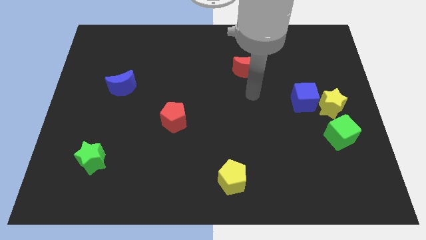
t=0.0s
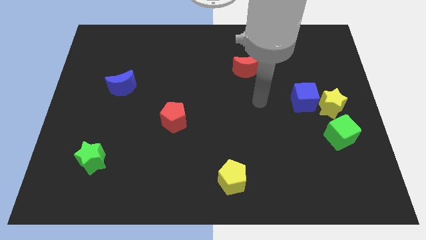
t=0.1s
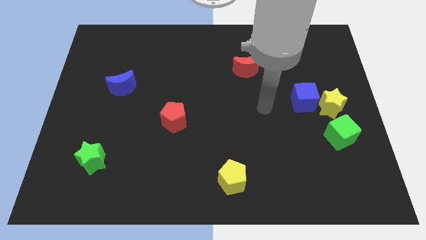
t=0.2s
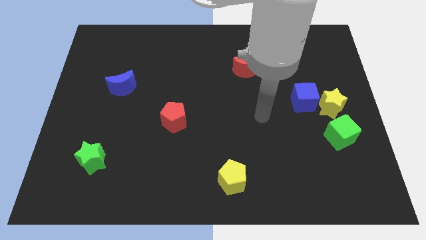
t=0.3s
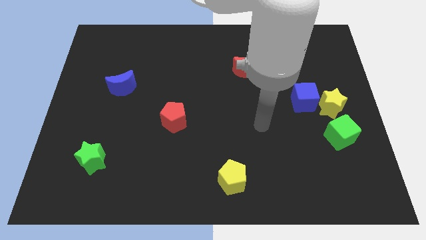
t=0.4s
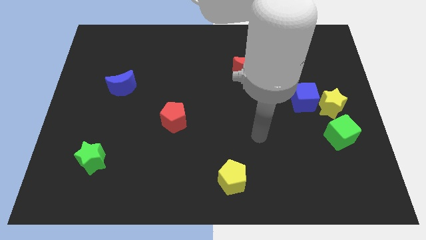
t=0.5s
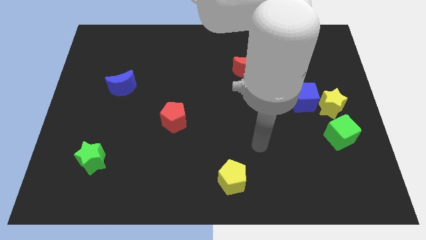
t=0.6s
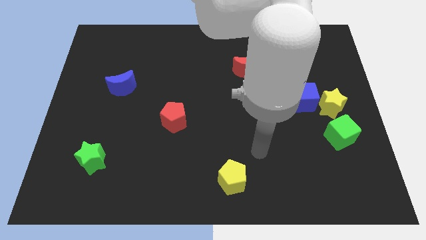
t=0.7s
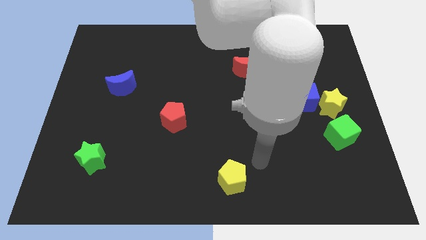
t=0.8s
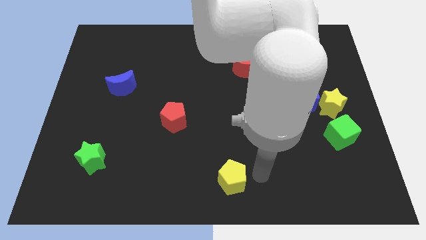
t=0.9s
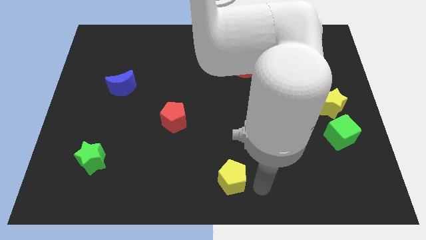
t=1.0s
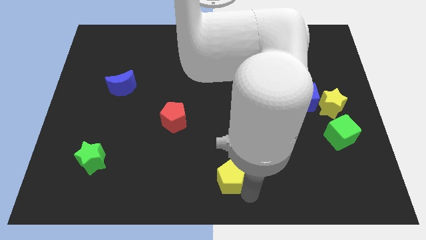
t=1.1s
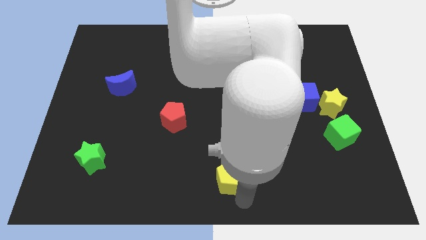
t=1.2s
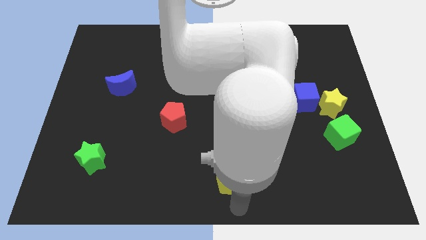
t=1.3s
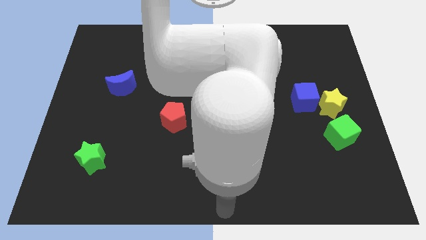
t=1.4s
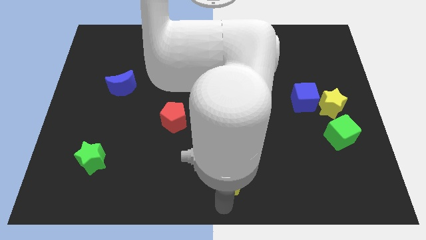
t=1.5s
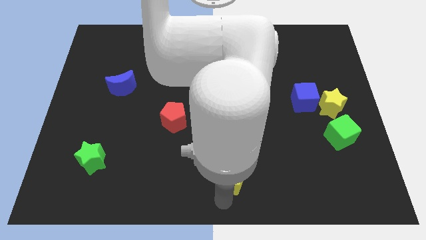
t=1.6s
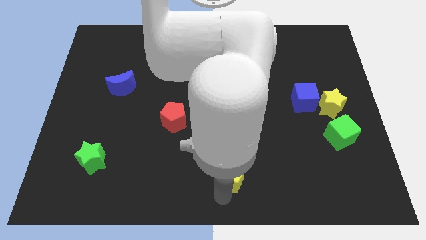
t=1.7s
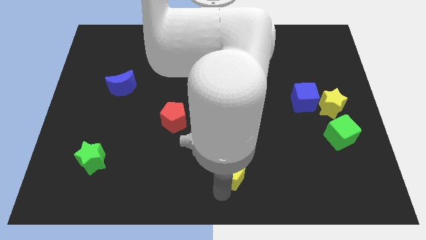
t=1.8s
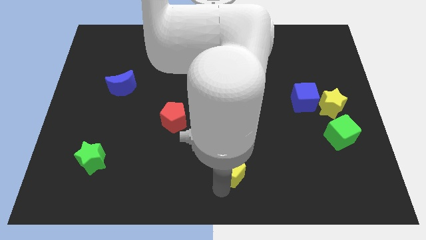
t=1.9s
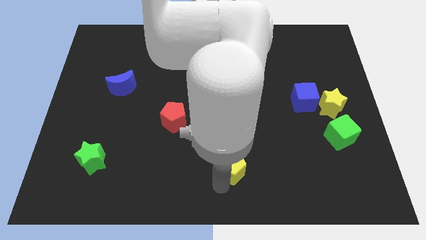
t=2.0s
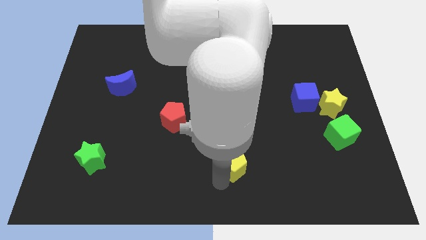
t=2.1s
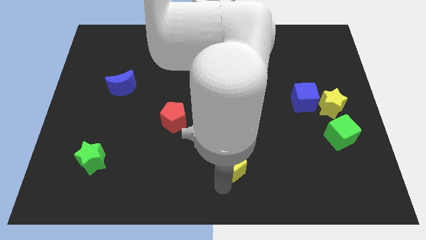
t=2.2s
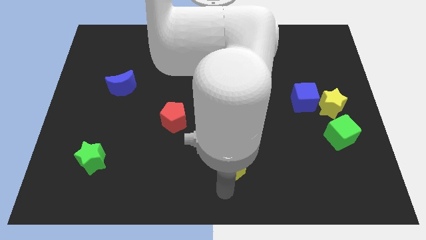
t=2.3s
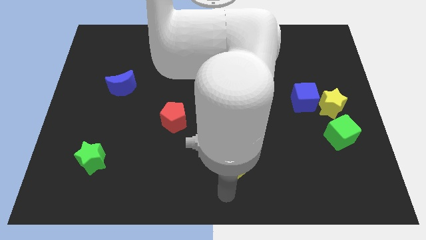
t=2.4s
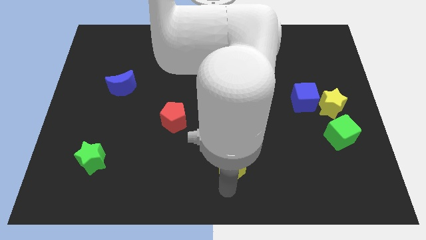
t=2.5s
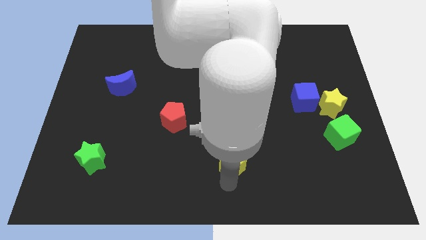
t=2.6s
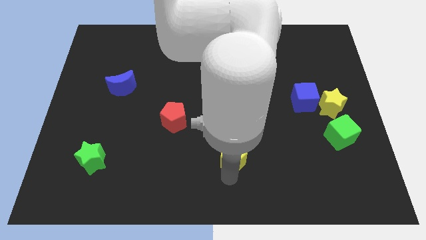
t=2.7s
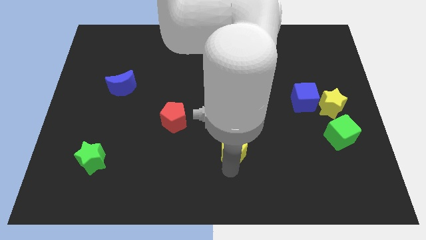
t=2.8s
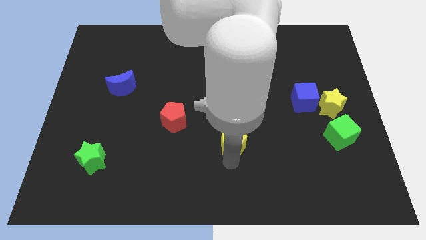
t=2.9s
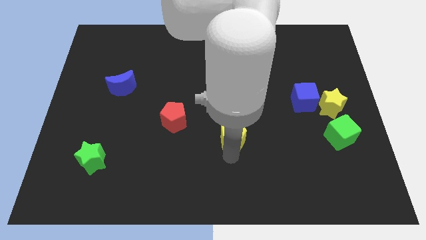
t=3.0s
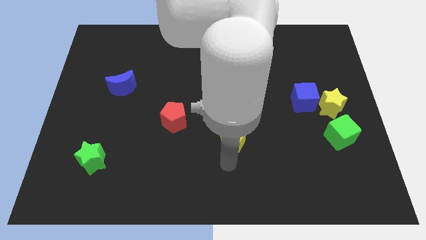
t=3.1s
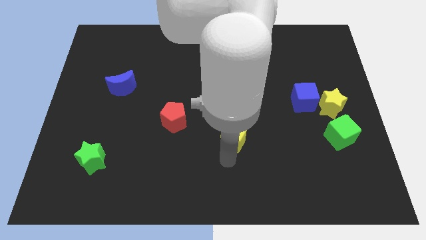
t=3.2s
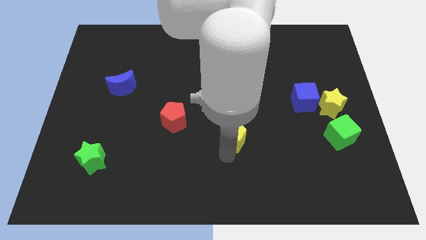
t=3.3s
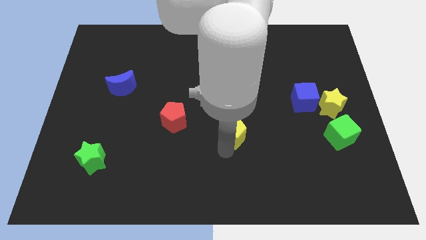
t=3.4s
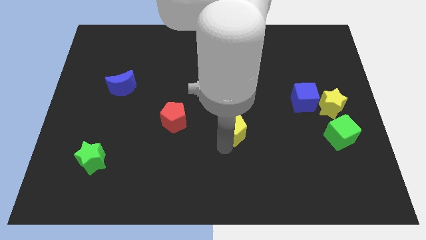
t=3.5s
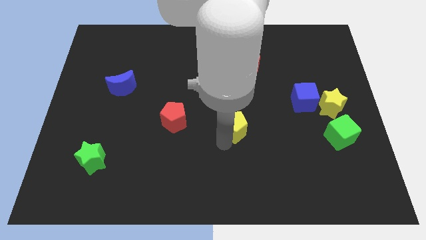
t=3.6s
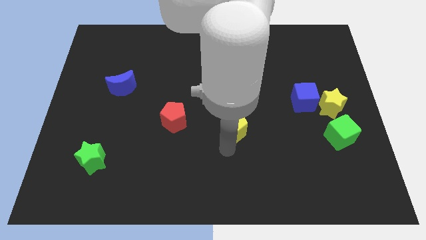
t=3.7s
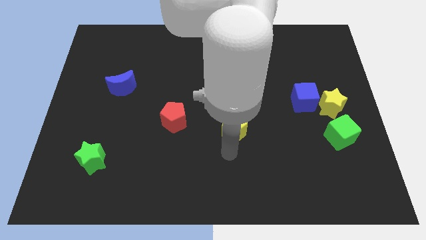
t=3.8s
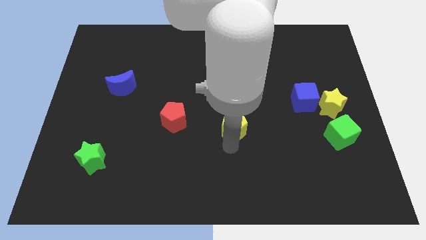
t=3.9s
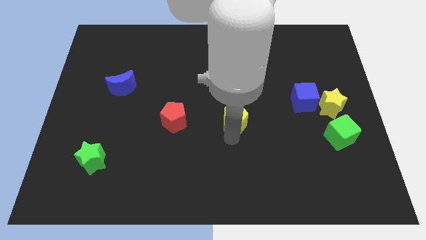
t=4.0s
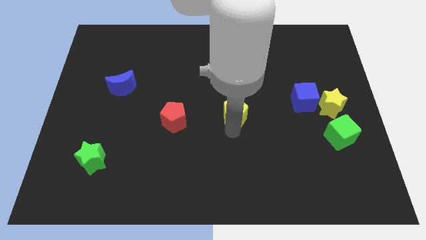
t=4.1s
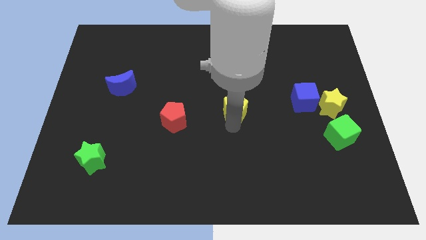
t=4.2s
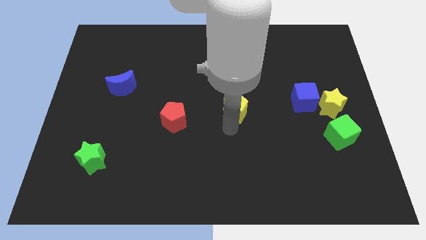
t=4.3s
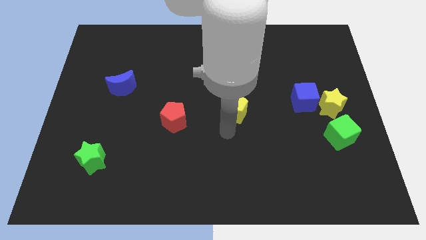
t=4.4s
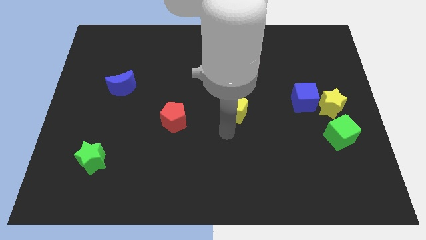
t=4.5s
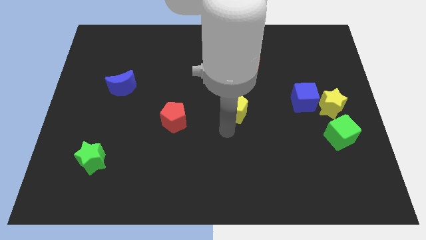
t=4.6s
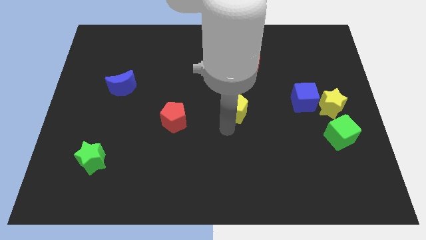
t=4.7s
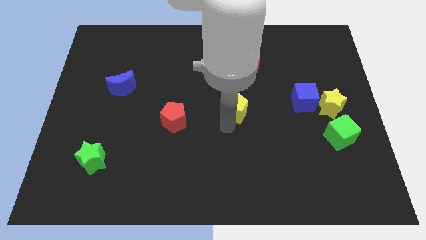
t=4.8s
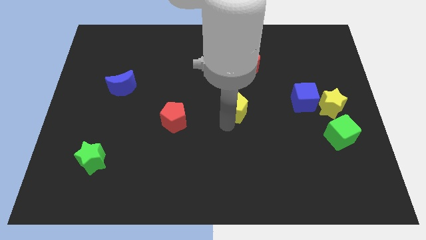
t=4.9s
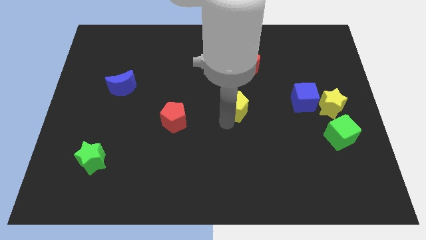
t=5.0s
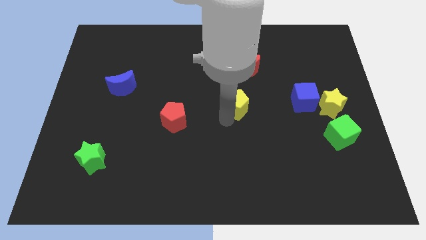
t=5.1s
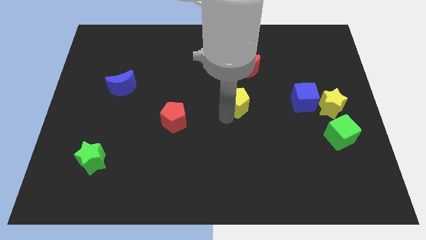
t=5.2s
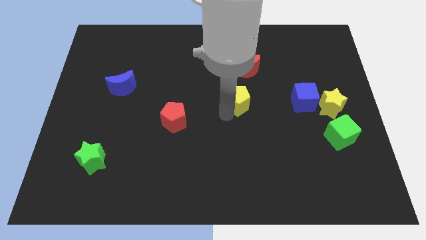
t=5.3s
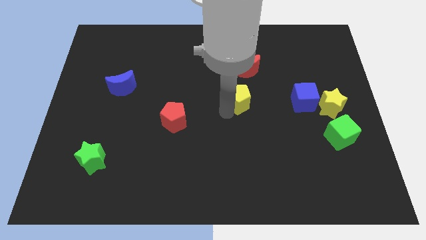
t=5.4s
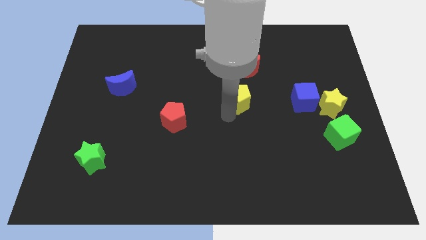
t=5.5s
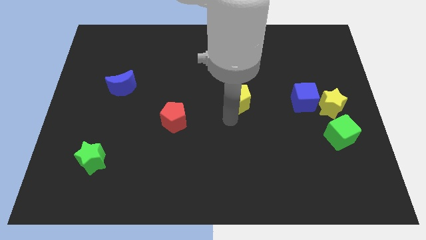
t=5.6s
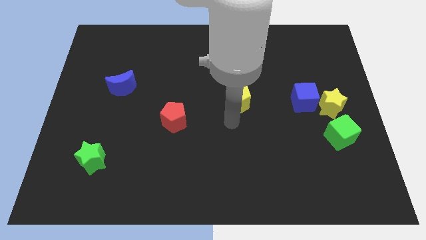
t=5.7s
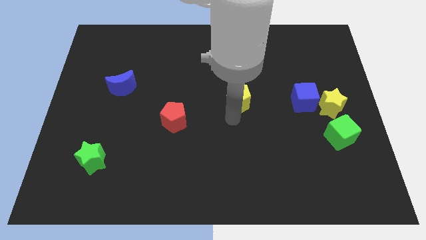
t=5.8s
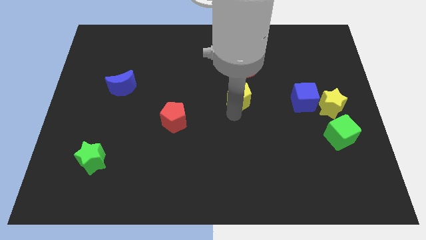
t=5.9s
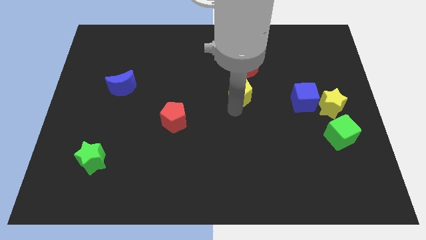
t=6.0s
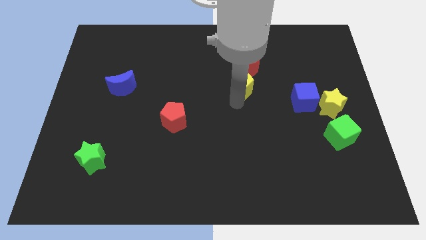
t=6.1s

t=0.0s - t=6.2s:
move the yellow pentagon close to the red moon
